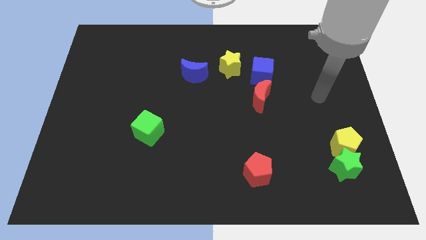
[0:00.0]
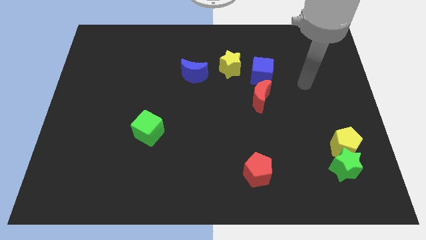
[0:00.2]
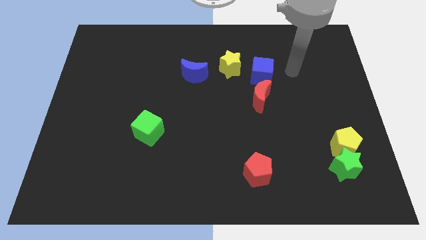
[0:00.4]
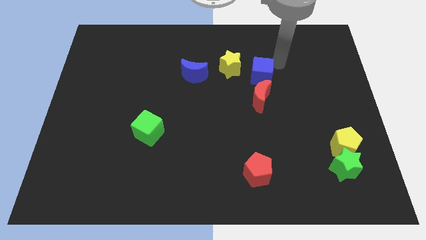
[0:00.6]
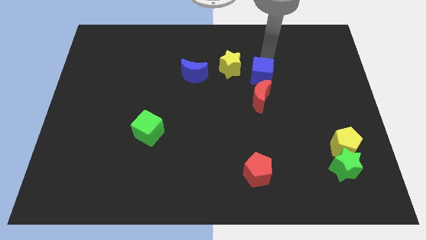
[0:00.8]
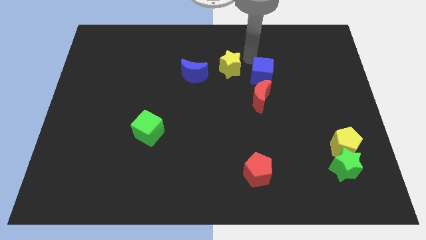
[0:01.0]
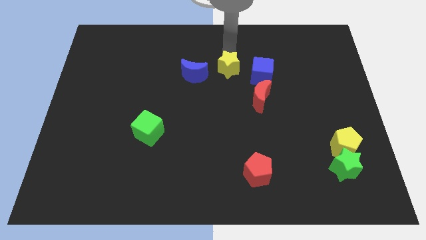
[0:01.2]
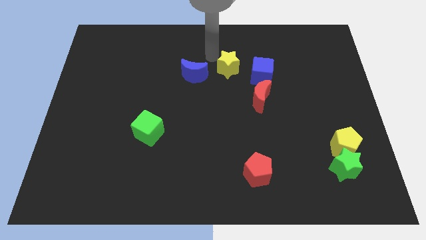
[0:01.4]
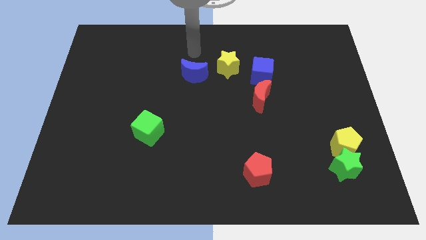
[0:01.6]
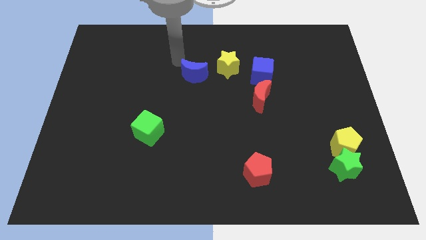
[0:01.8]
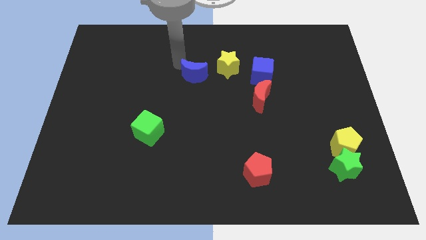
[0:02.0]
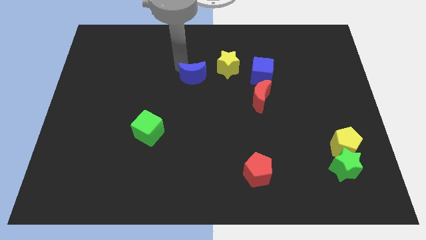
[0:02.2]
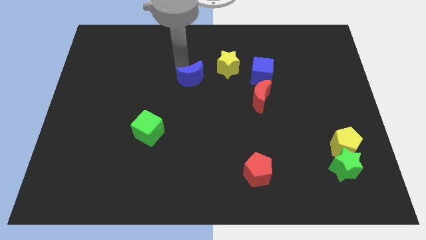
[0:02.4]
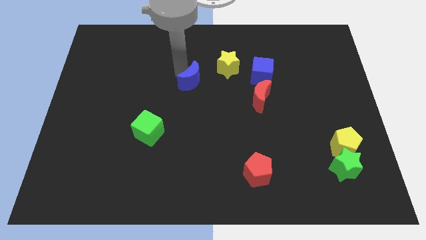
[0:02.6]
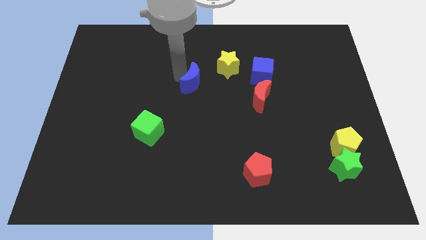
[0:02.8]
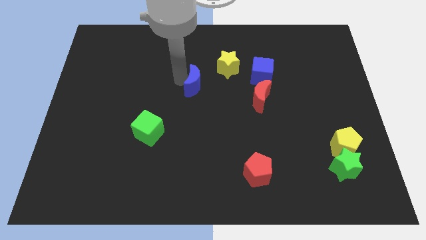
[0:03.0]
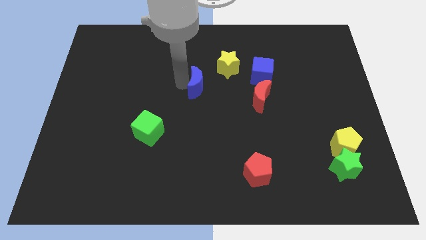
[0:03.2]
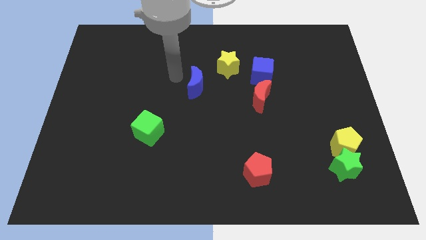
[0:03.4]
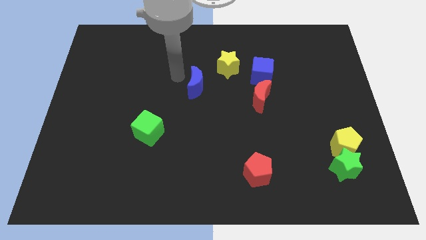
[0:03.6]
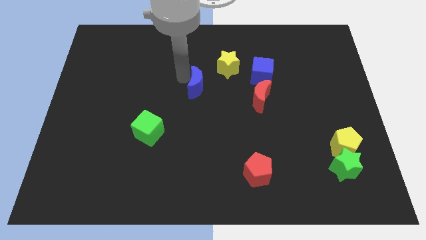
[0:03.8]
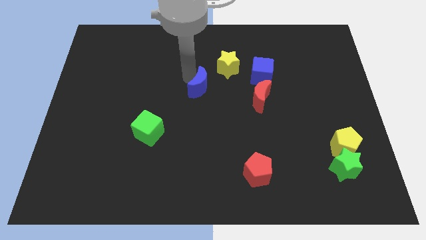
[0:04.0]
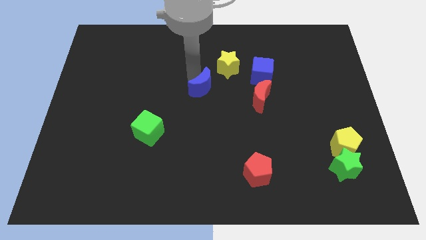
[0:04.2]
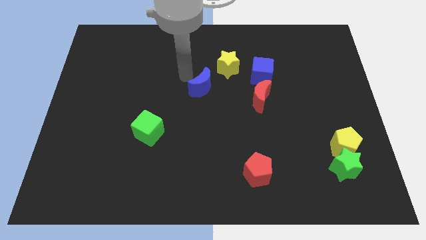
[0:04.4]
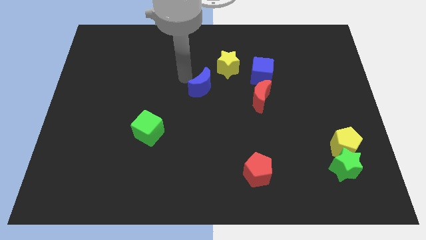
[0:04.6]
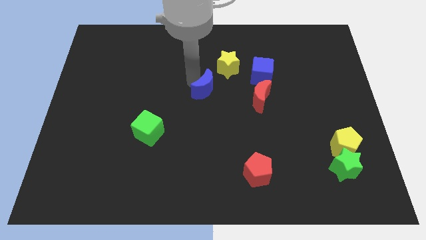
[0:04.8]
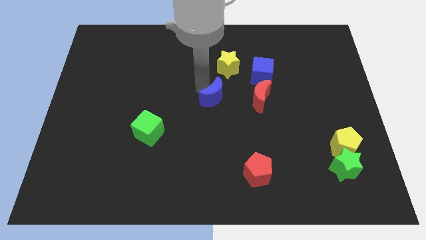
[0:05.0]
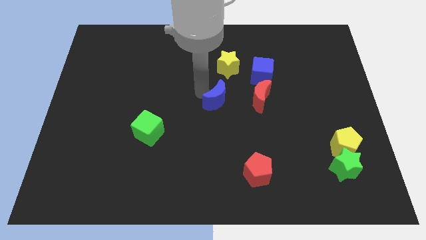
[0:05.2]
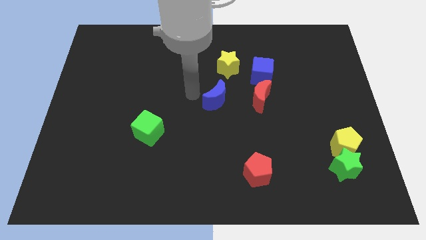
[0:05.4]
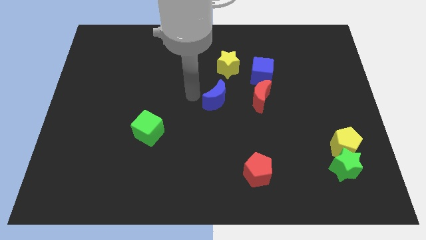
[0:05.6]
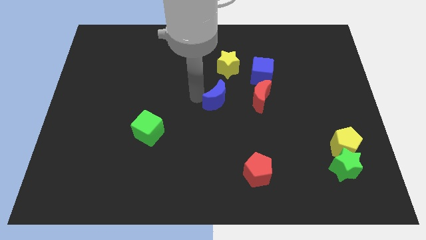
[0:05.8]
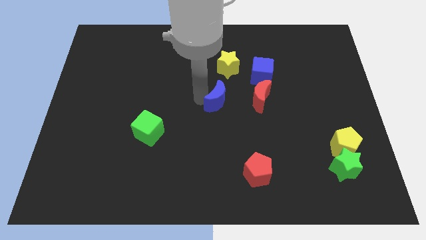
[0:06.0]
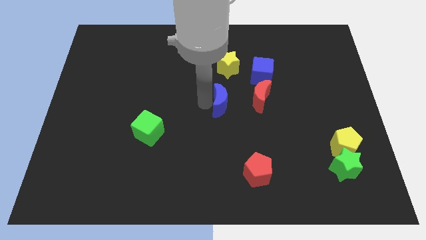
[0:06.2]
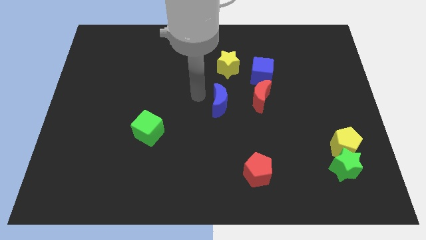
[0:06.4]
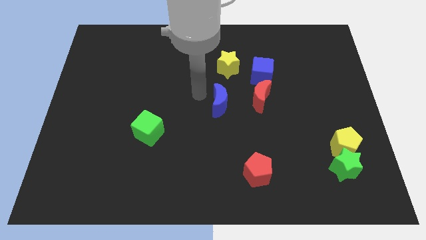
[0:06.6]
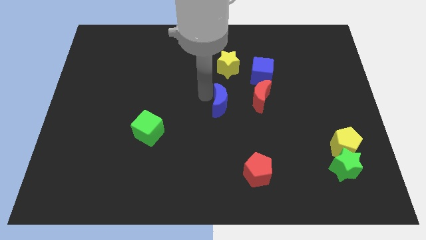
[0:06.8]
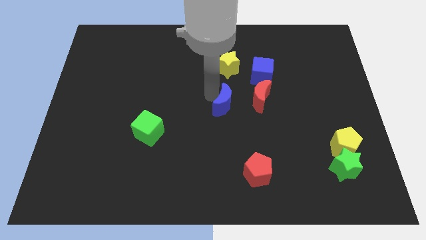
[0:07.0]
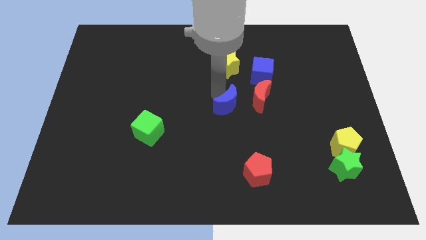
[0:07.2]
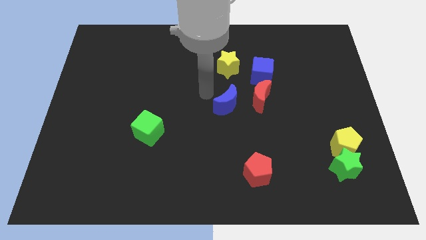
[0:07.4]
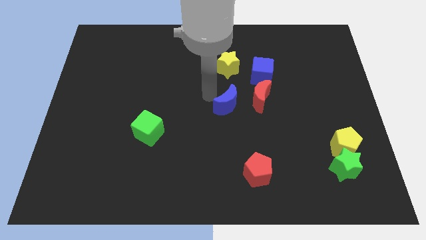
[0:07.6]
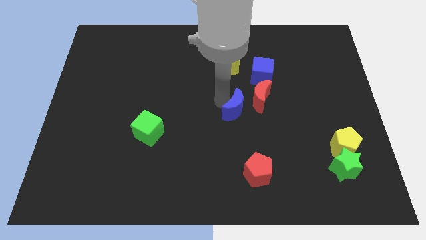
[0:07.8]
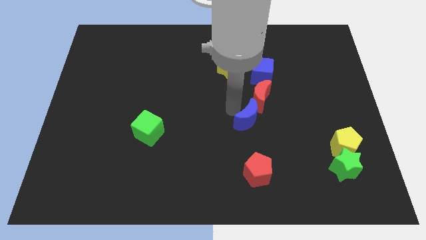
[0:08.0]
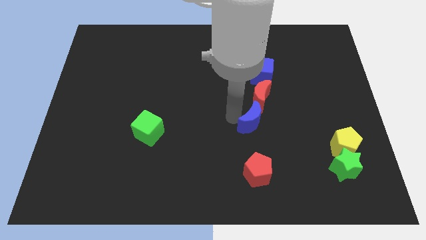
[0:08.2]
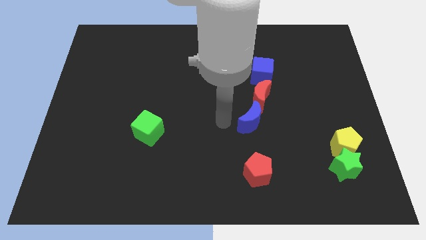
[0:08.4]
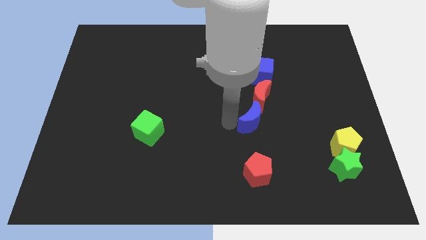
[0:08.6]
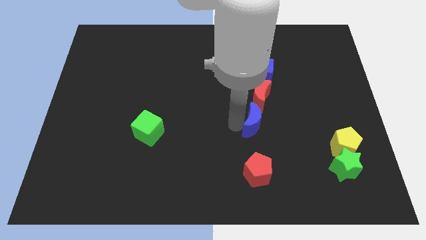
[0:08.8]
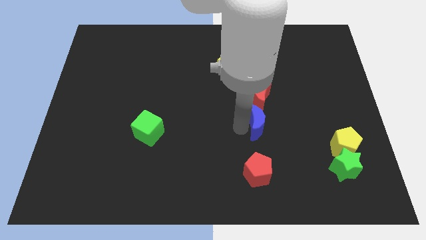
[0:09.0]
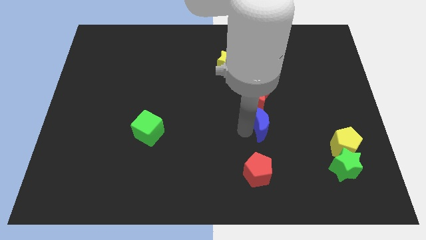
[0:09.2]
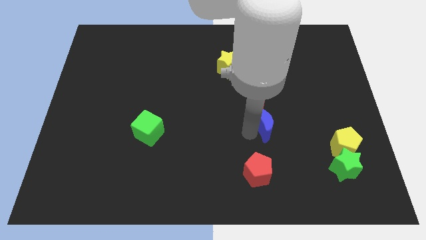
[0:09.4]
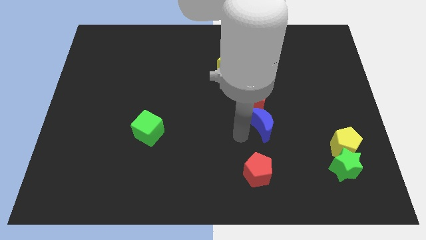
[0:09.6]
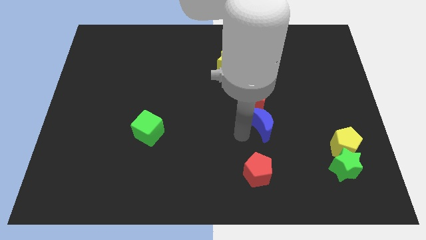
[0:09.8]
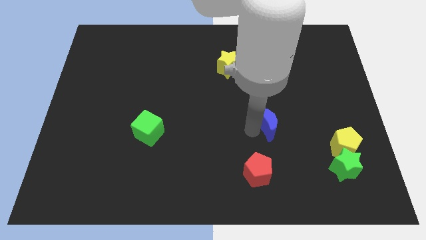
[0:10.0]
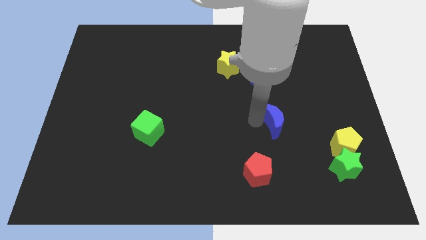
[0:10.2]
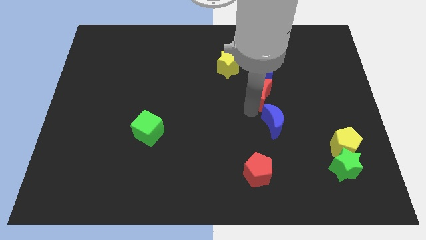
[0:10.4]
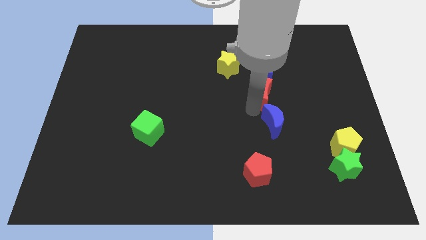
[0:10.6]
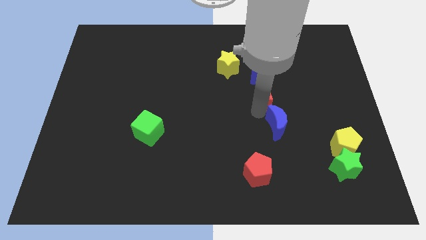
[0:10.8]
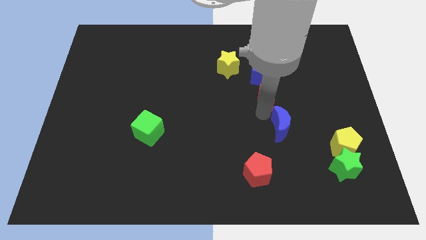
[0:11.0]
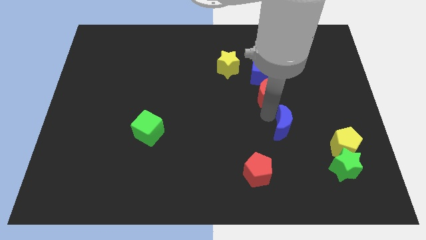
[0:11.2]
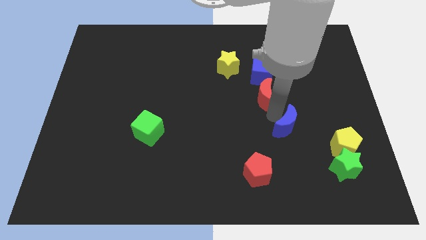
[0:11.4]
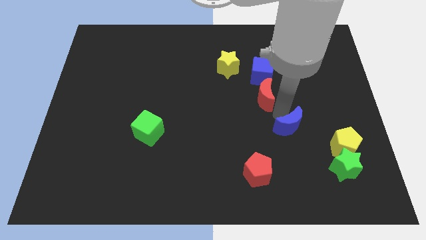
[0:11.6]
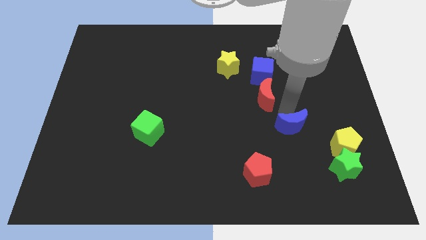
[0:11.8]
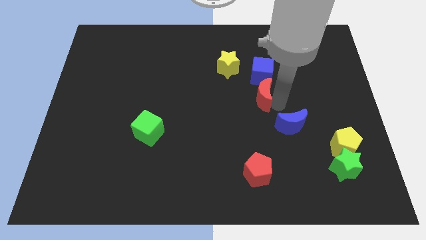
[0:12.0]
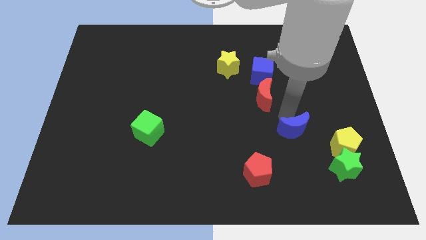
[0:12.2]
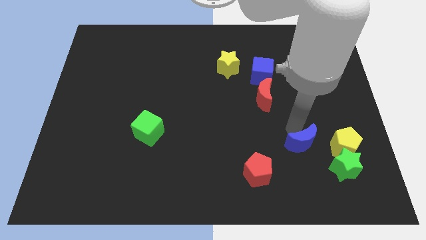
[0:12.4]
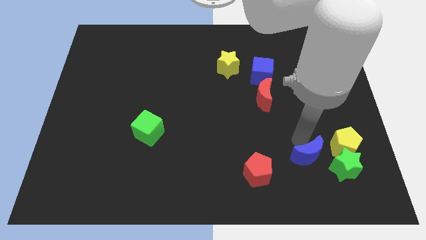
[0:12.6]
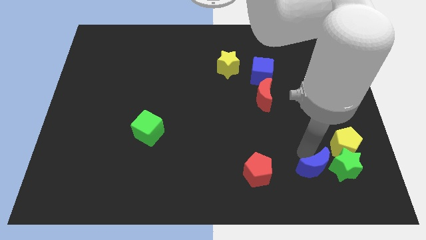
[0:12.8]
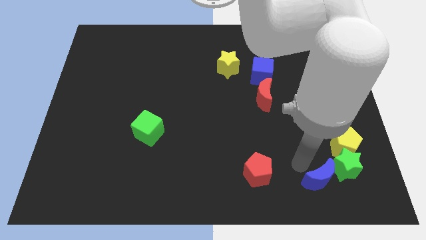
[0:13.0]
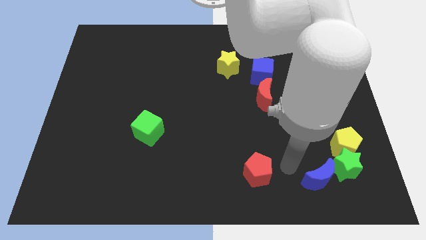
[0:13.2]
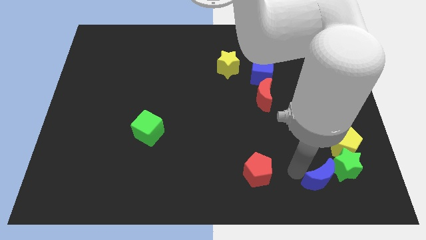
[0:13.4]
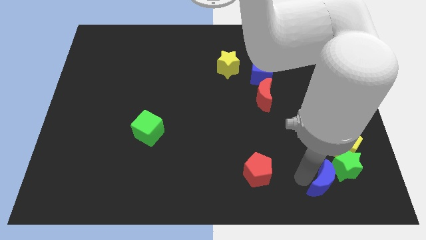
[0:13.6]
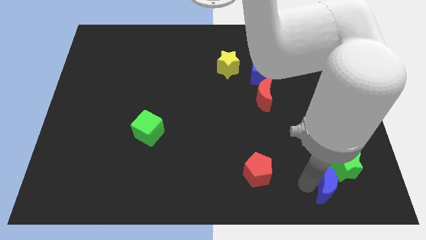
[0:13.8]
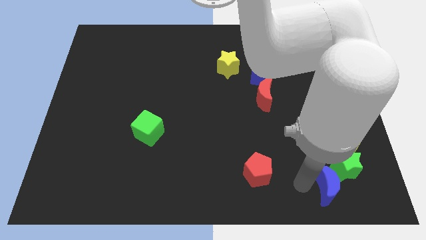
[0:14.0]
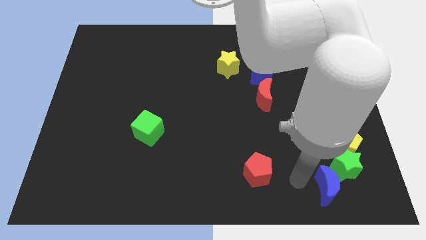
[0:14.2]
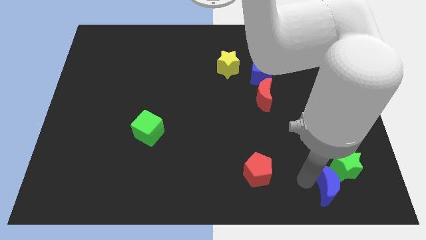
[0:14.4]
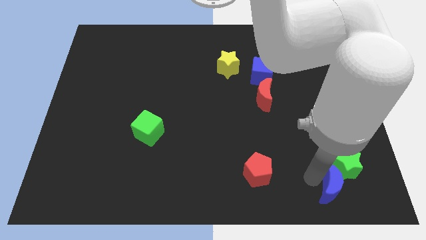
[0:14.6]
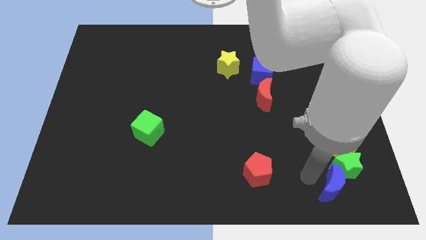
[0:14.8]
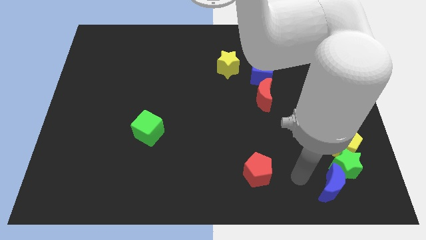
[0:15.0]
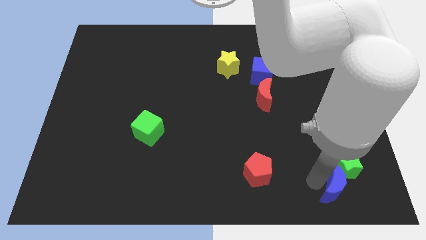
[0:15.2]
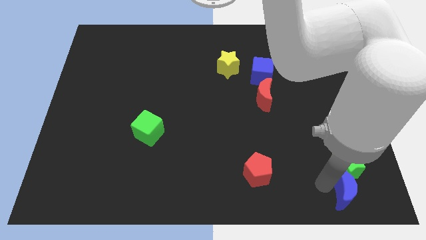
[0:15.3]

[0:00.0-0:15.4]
push the blue moon to the bottom right of the board
